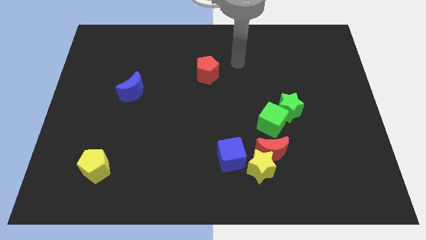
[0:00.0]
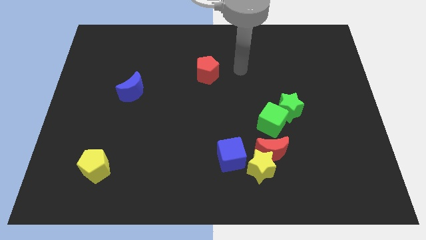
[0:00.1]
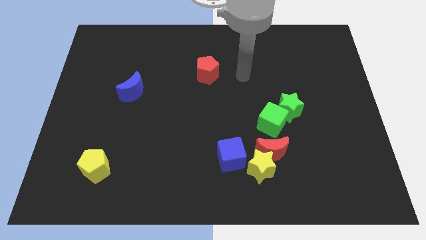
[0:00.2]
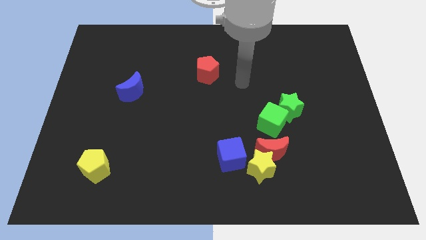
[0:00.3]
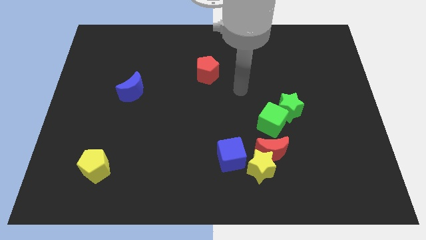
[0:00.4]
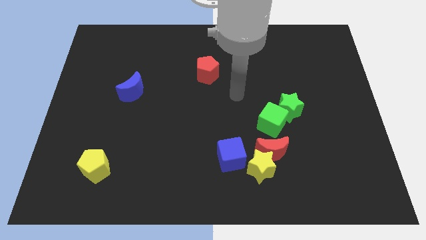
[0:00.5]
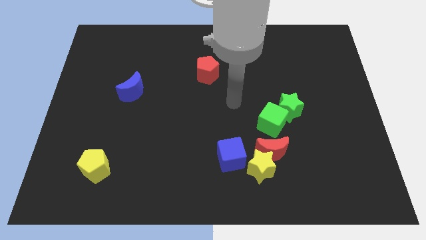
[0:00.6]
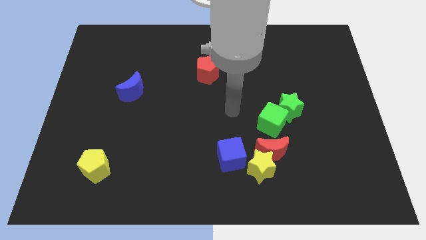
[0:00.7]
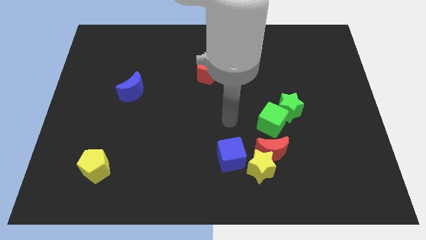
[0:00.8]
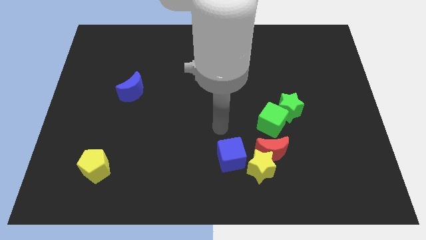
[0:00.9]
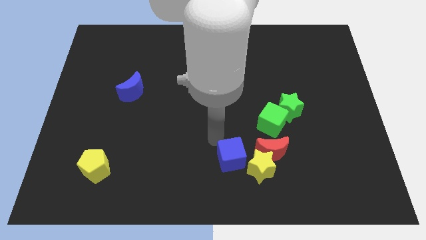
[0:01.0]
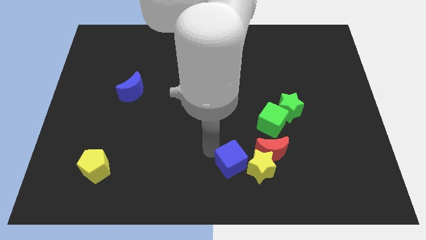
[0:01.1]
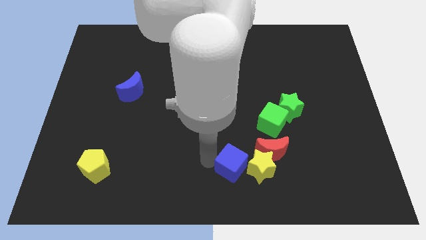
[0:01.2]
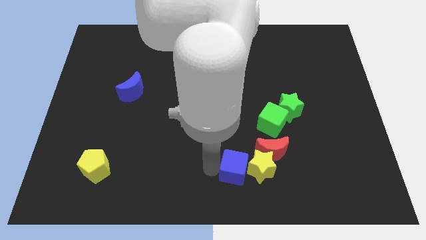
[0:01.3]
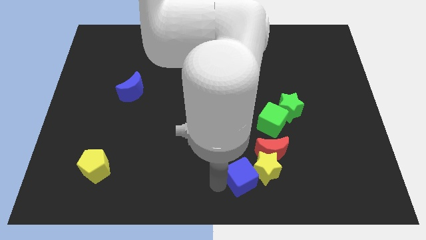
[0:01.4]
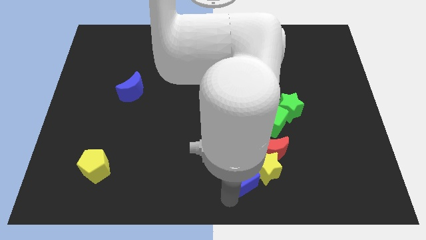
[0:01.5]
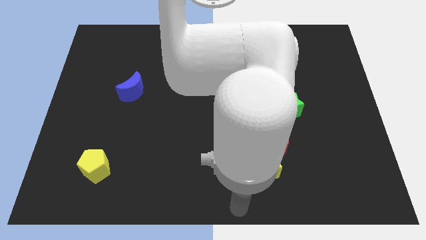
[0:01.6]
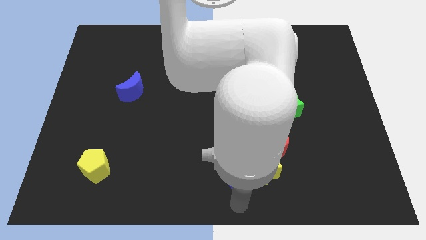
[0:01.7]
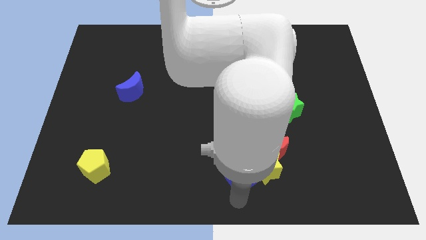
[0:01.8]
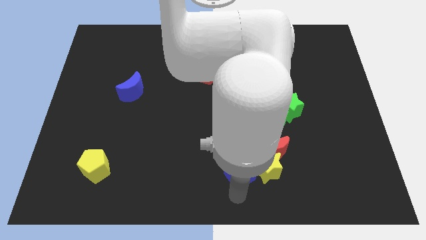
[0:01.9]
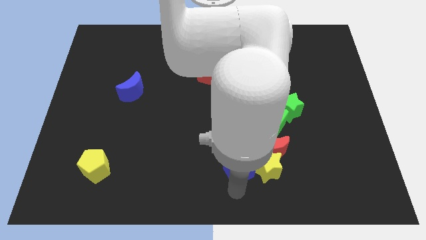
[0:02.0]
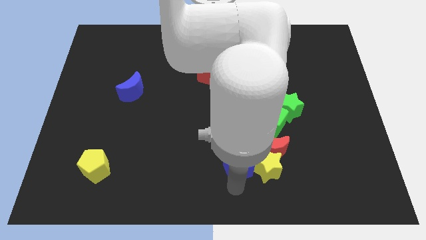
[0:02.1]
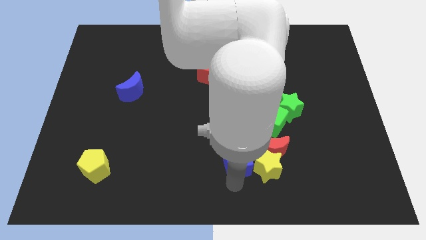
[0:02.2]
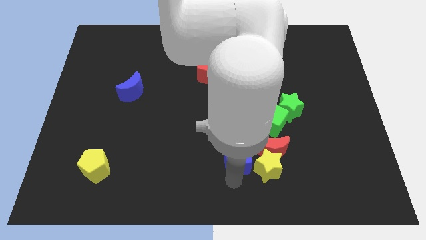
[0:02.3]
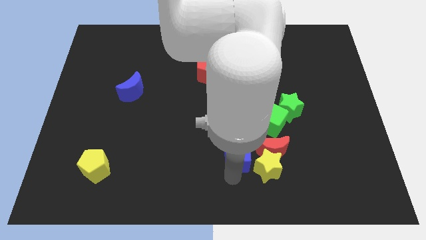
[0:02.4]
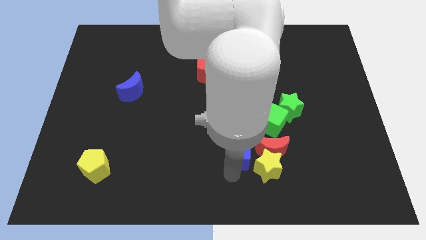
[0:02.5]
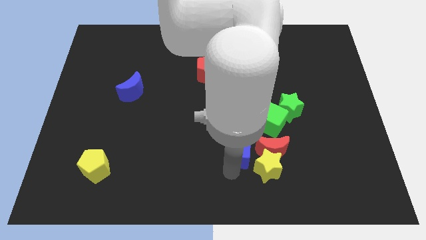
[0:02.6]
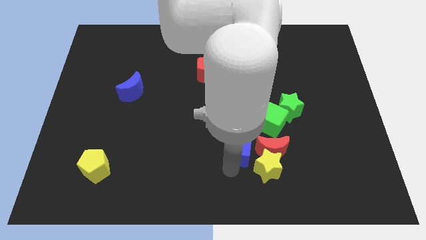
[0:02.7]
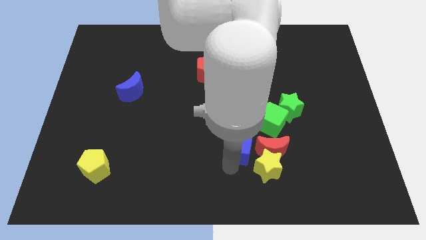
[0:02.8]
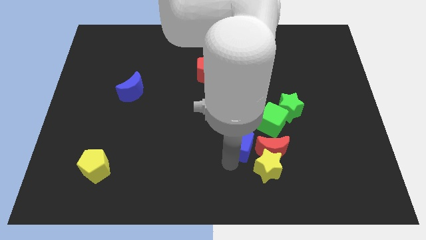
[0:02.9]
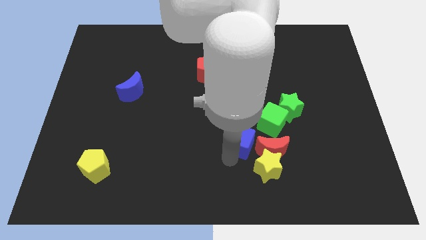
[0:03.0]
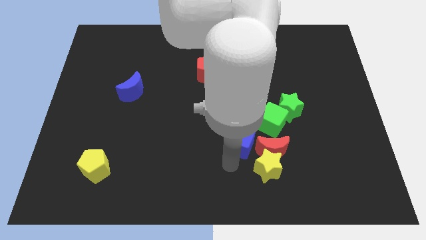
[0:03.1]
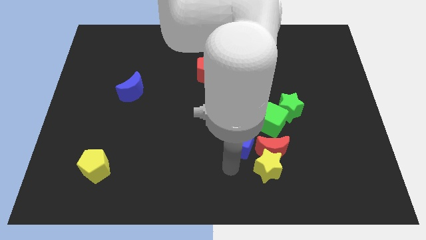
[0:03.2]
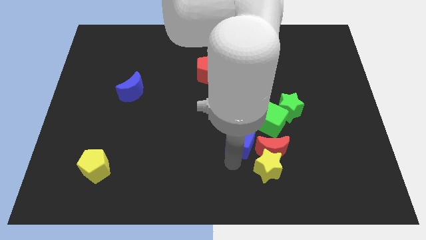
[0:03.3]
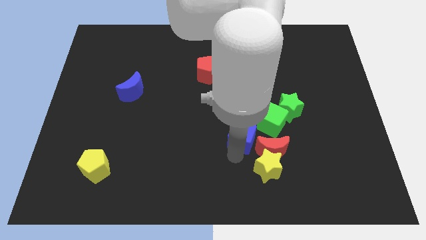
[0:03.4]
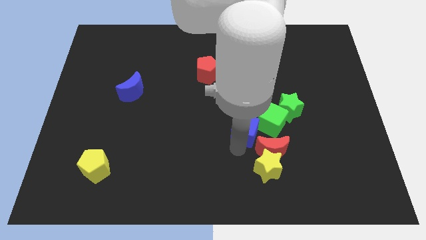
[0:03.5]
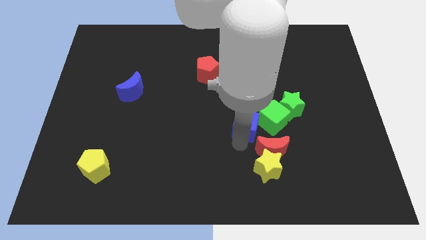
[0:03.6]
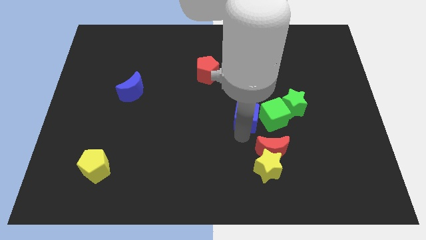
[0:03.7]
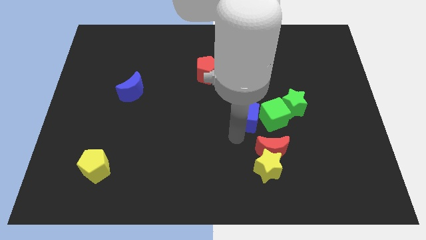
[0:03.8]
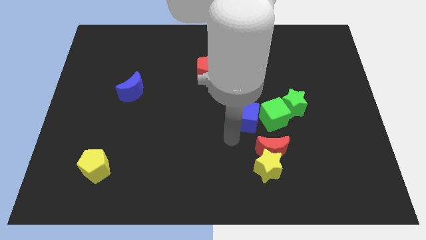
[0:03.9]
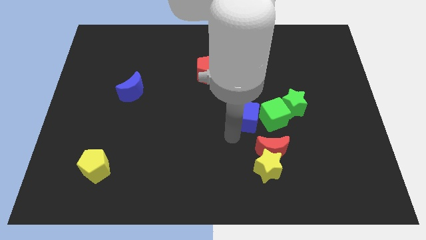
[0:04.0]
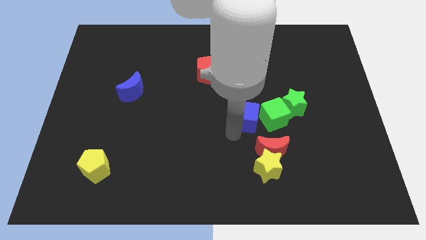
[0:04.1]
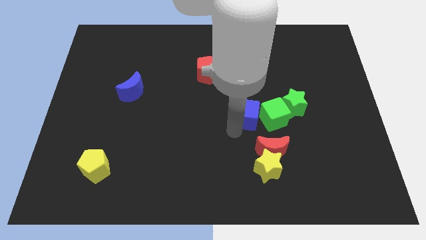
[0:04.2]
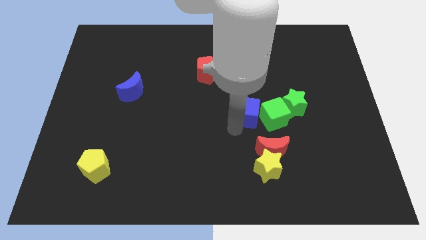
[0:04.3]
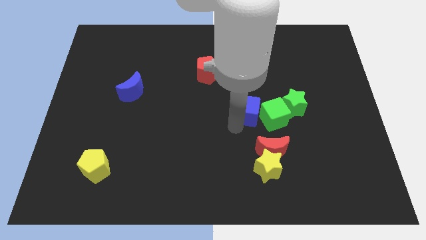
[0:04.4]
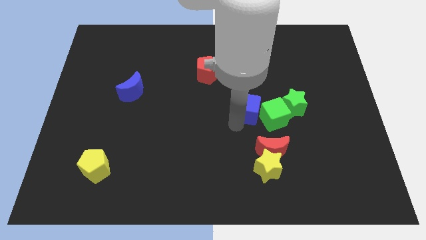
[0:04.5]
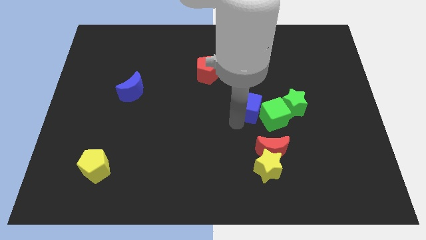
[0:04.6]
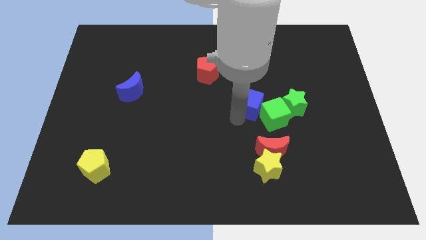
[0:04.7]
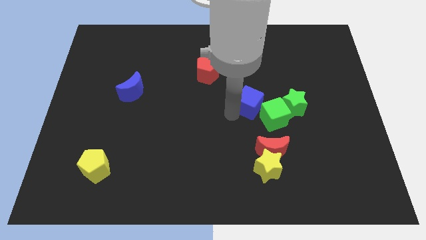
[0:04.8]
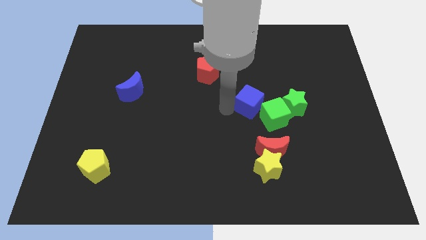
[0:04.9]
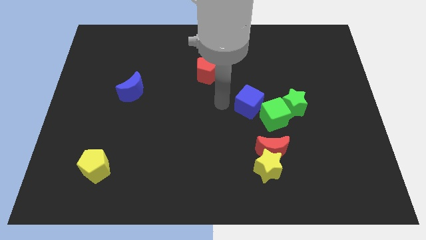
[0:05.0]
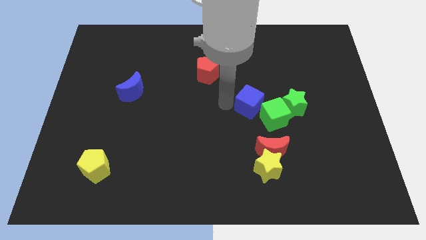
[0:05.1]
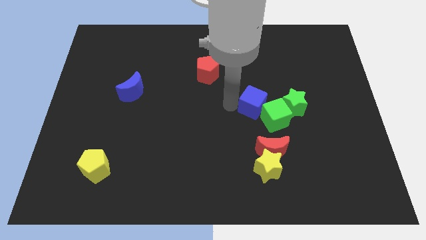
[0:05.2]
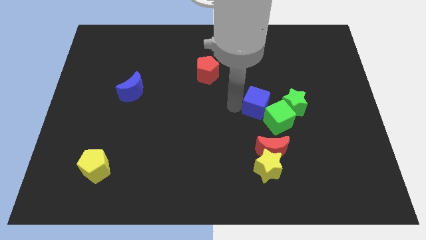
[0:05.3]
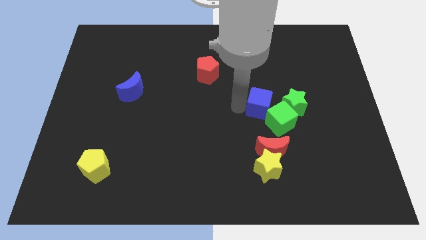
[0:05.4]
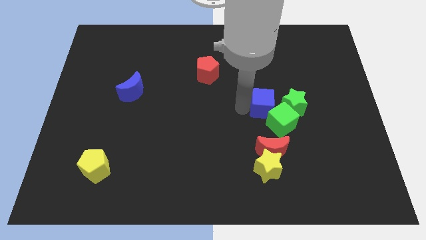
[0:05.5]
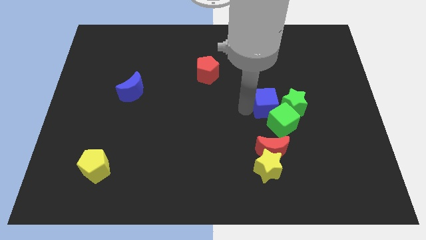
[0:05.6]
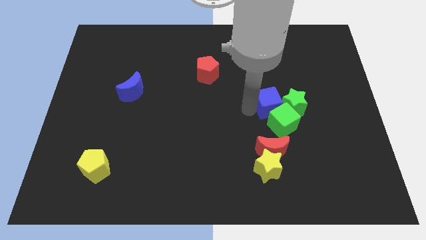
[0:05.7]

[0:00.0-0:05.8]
push the blue cube to the green star

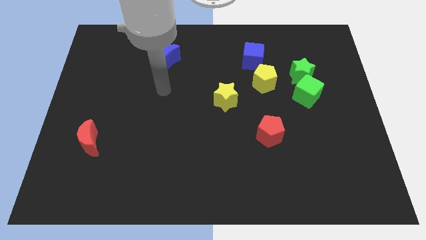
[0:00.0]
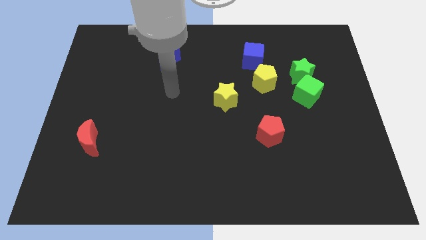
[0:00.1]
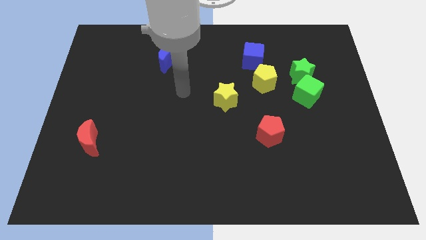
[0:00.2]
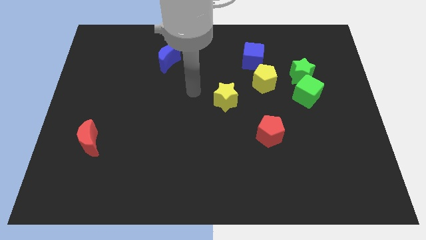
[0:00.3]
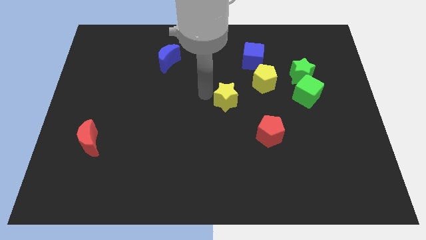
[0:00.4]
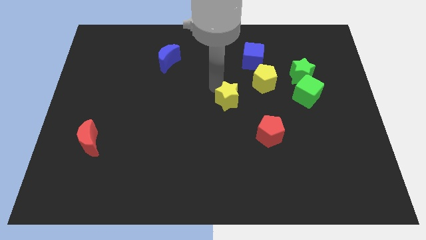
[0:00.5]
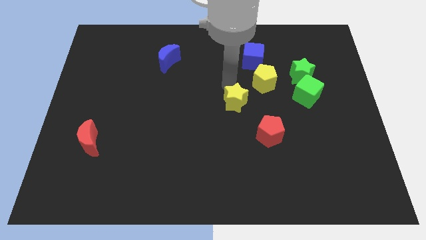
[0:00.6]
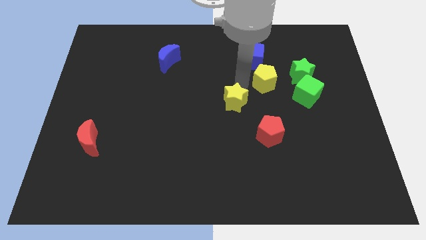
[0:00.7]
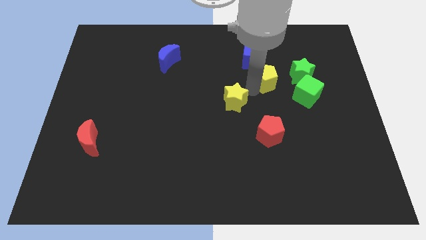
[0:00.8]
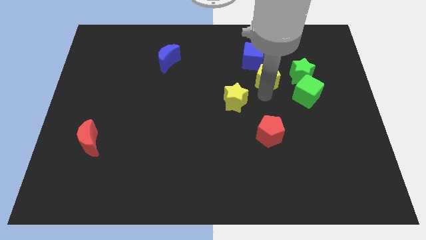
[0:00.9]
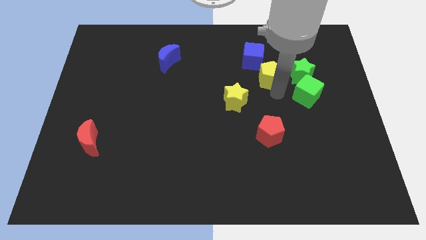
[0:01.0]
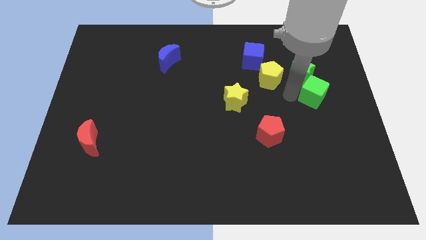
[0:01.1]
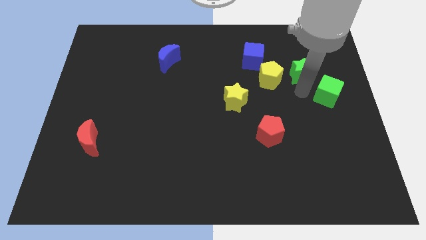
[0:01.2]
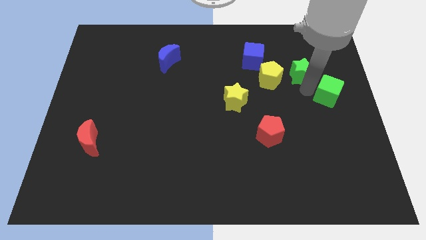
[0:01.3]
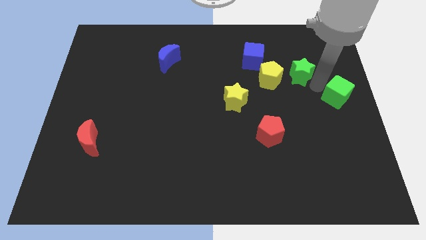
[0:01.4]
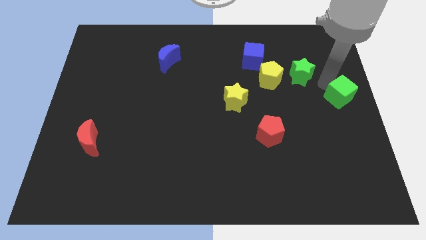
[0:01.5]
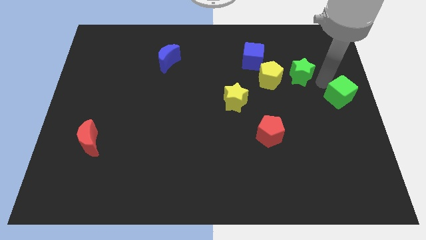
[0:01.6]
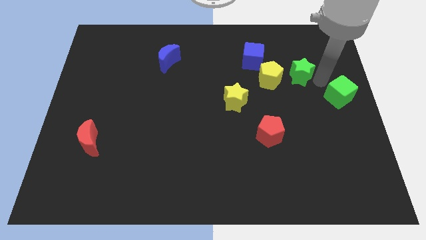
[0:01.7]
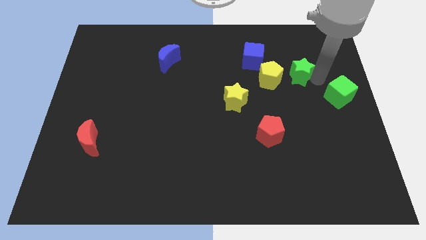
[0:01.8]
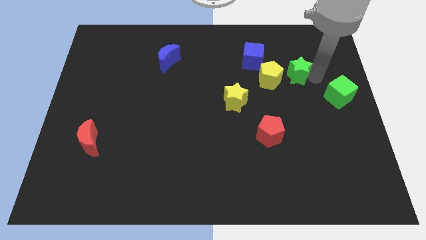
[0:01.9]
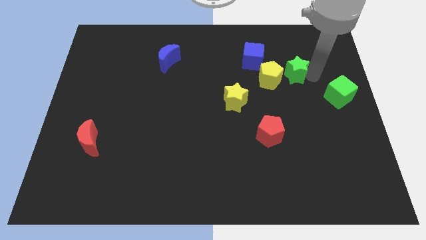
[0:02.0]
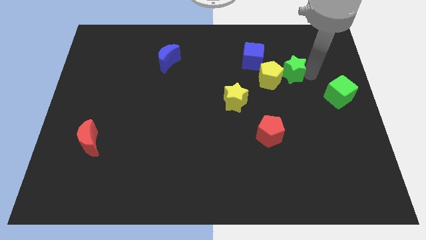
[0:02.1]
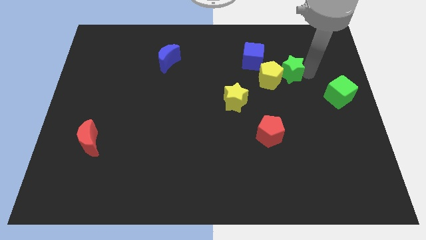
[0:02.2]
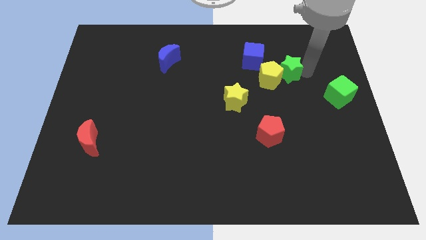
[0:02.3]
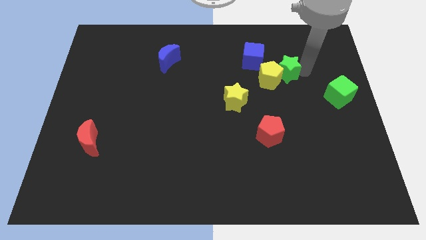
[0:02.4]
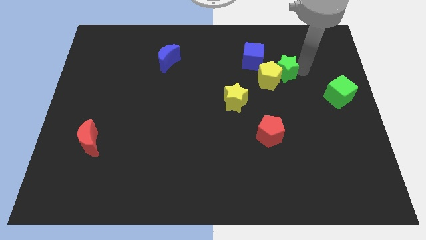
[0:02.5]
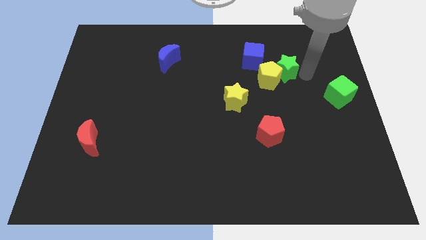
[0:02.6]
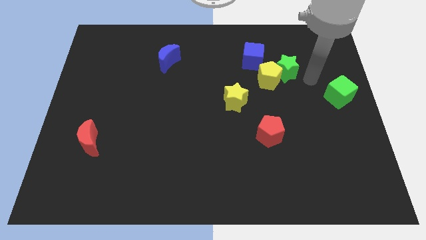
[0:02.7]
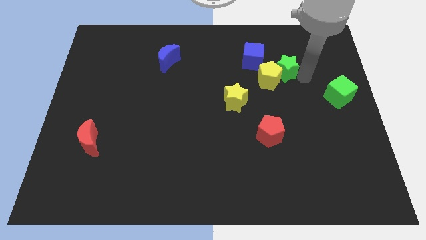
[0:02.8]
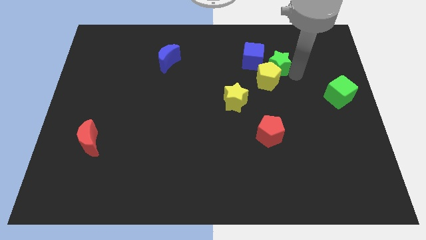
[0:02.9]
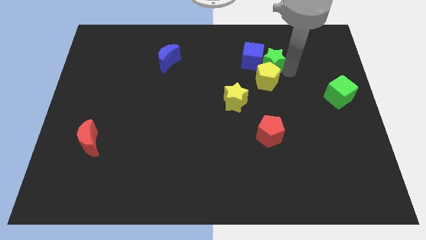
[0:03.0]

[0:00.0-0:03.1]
move the green star close to the blue cube
